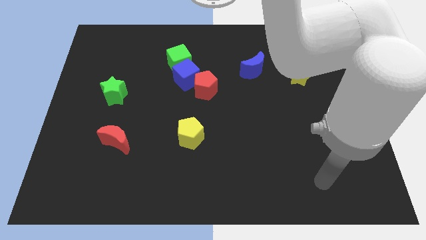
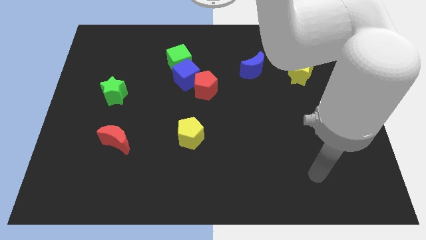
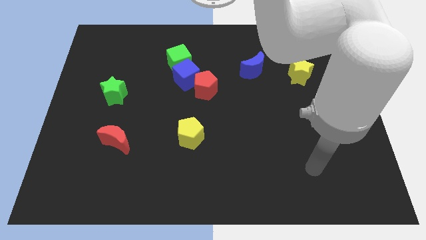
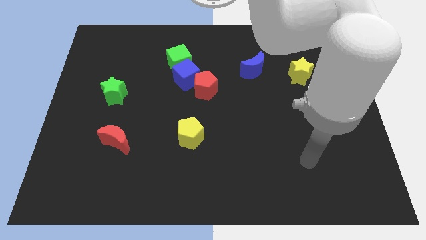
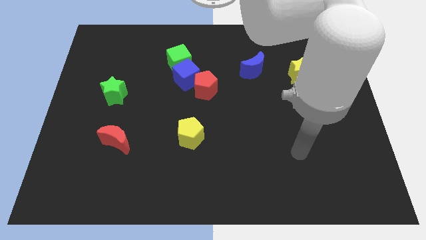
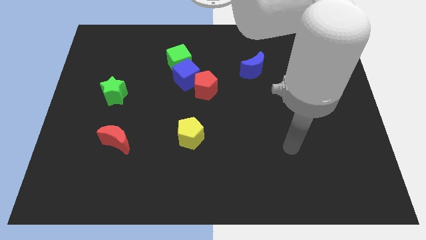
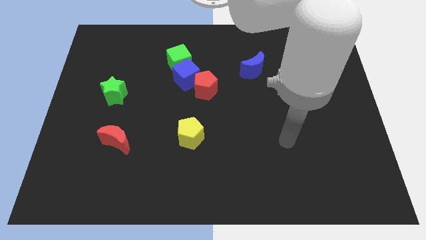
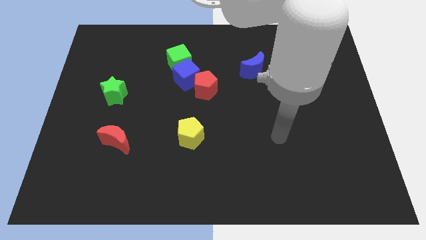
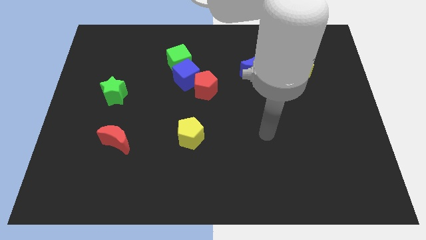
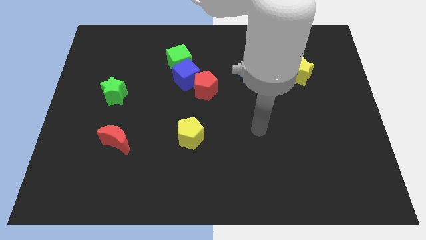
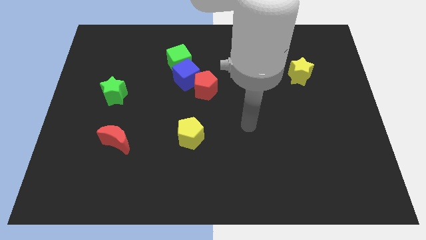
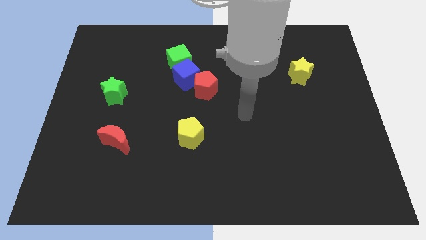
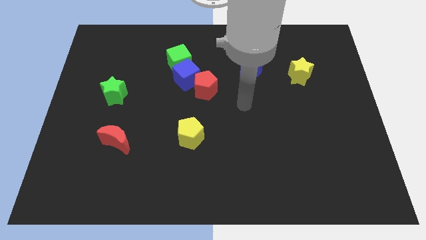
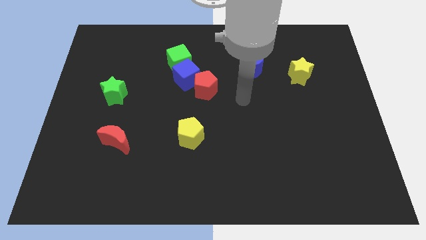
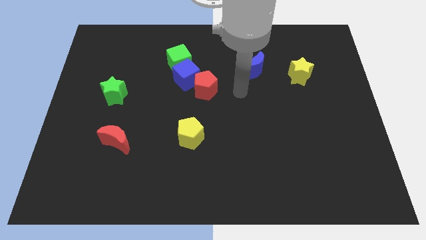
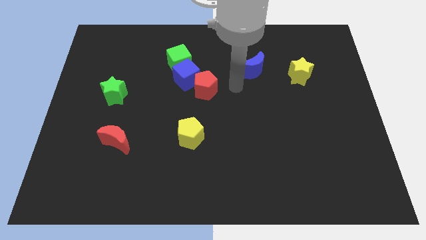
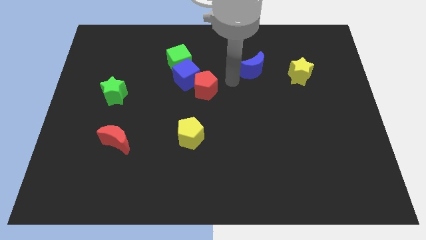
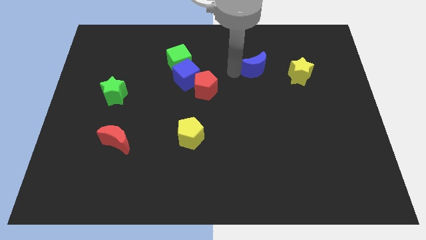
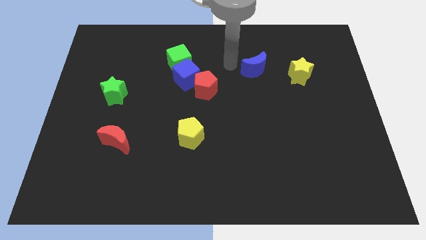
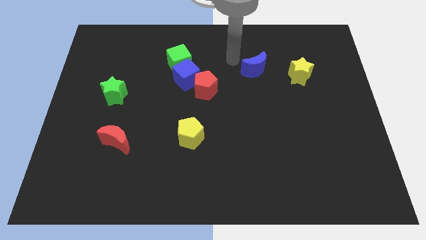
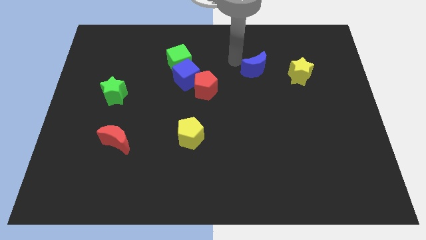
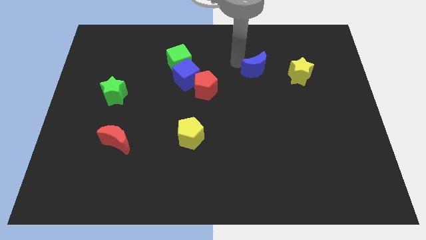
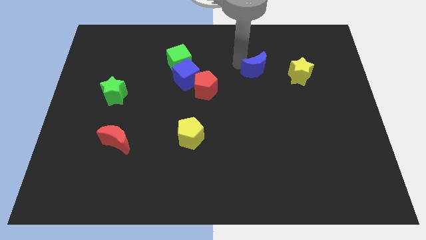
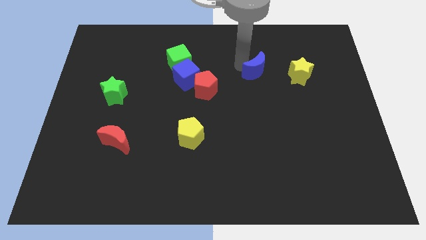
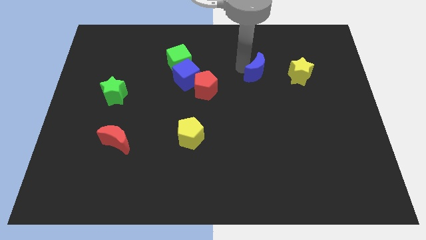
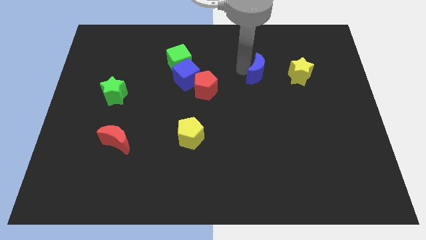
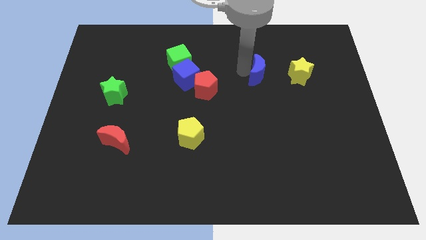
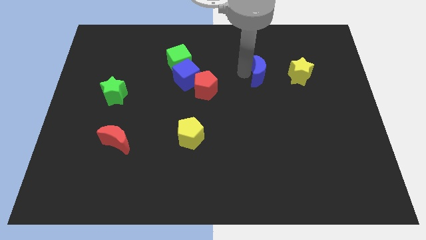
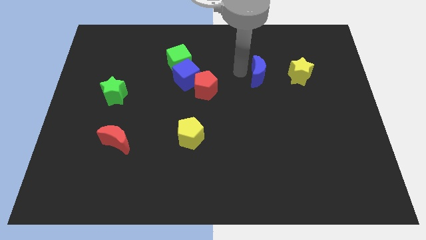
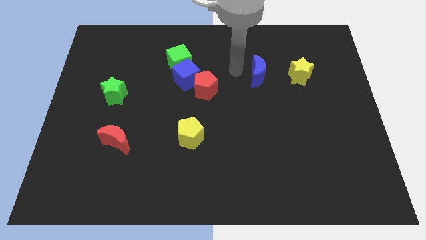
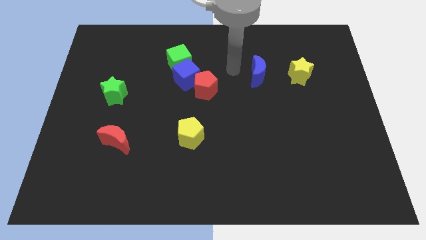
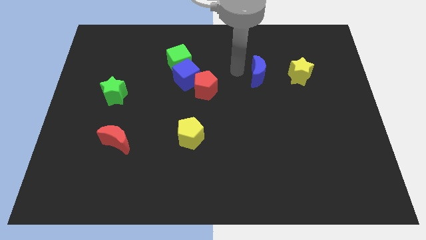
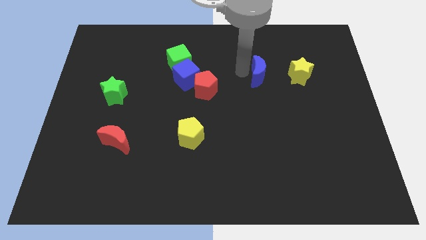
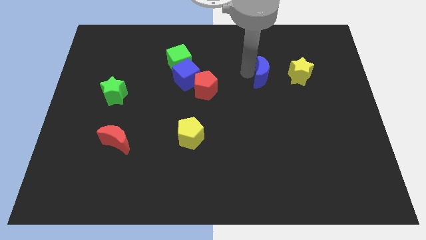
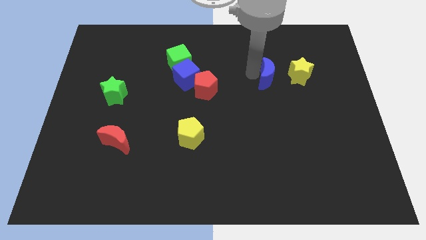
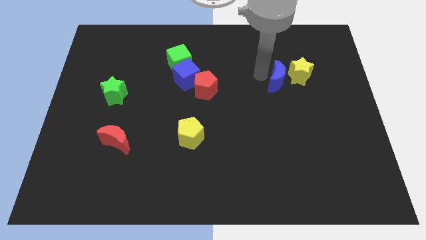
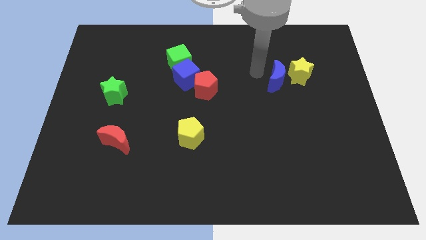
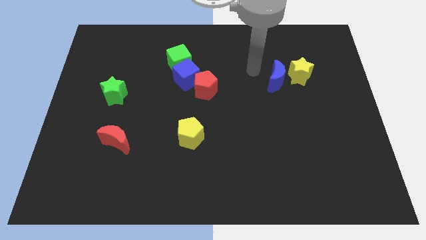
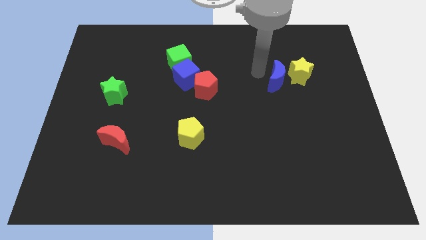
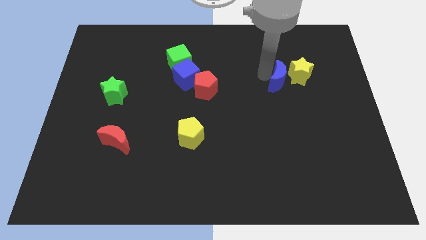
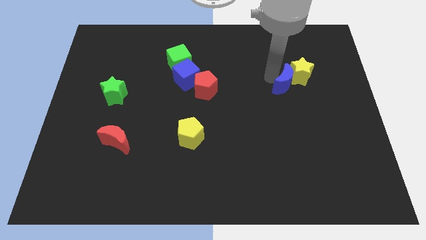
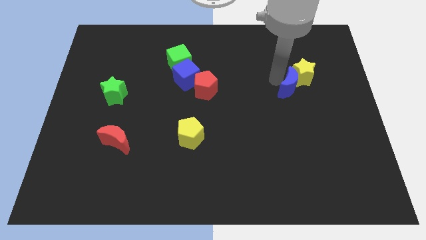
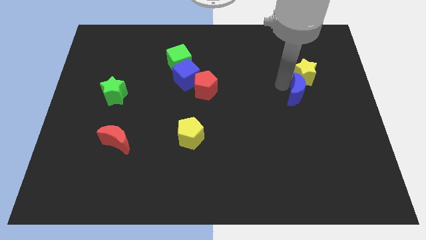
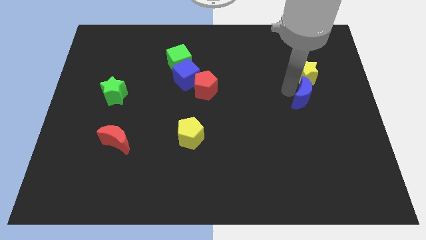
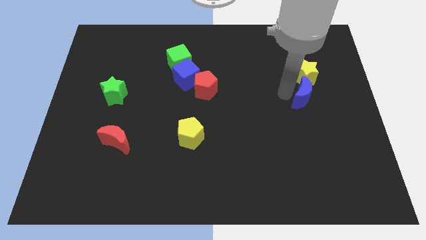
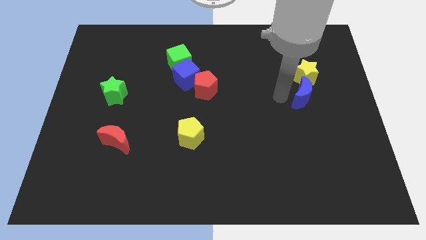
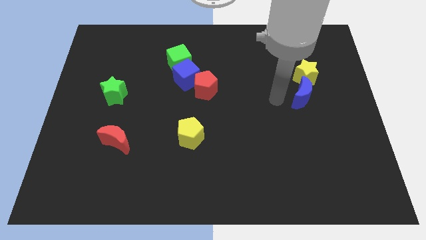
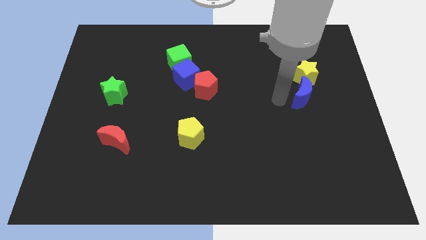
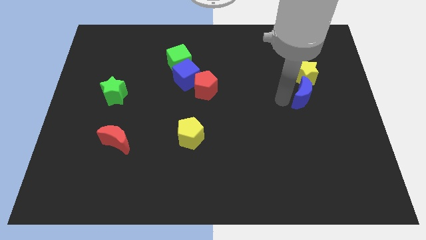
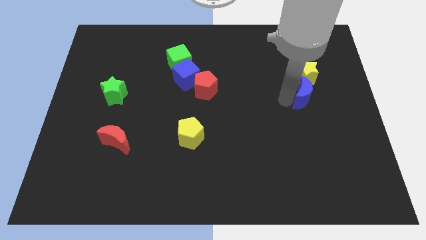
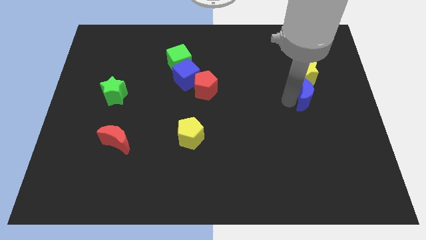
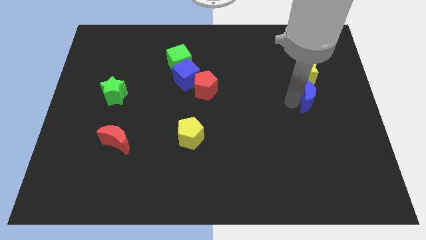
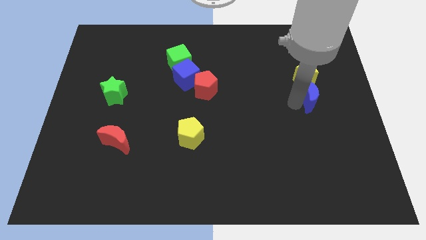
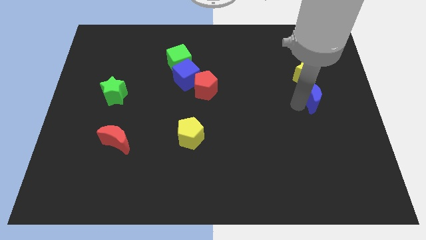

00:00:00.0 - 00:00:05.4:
push the blue moon to the bottom right side of the yellow star

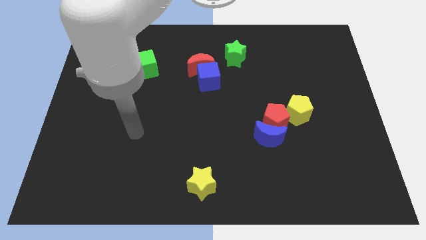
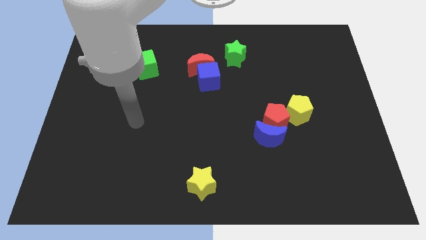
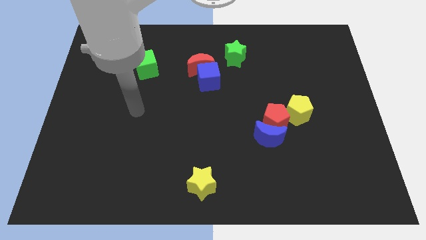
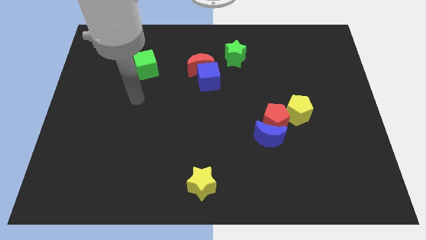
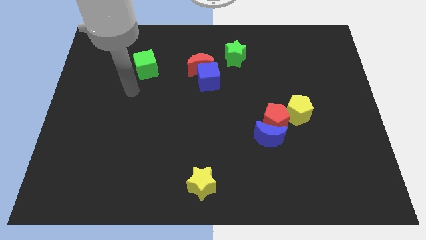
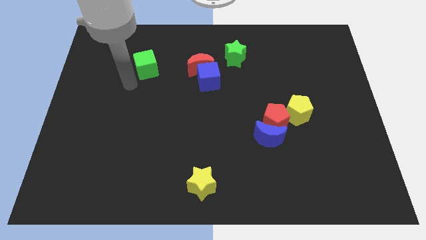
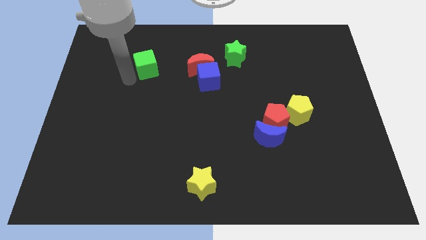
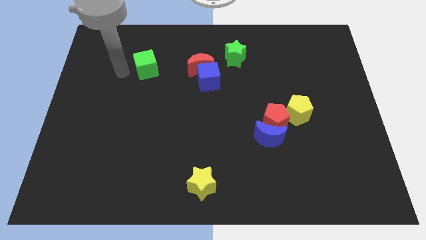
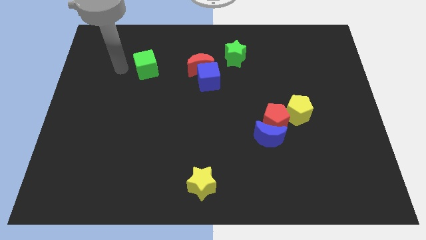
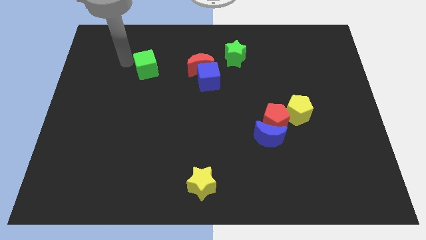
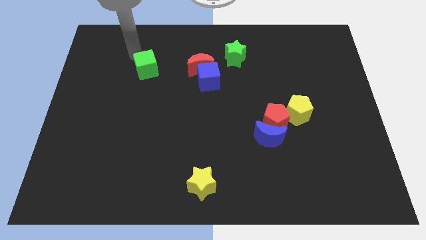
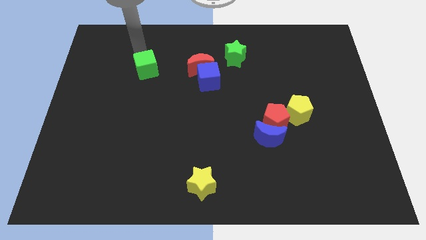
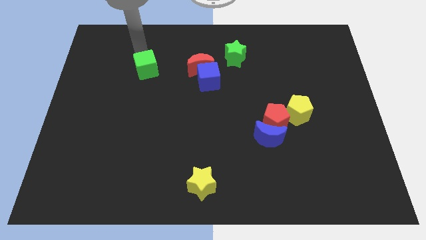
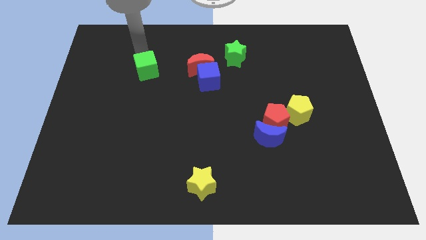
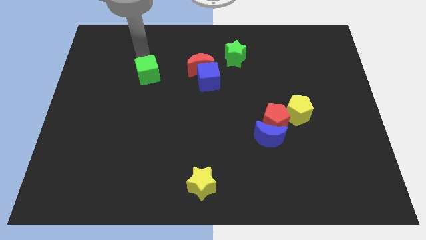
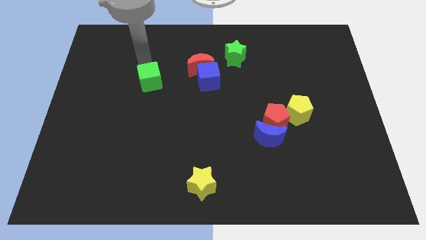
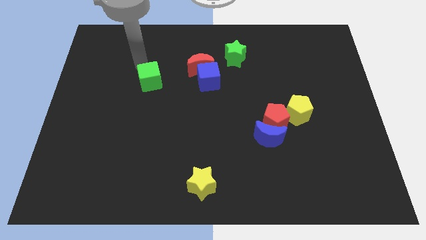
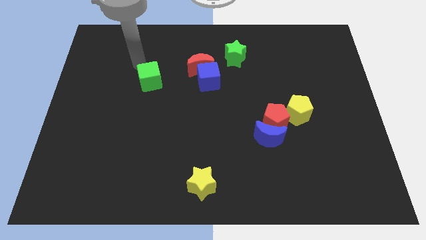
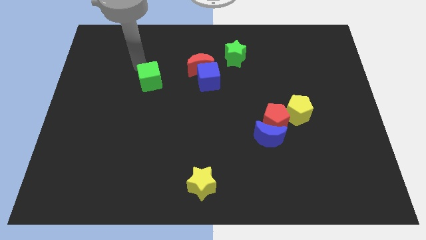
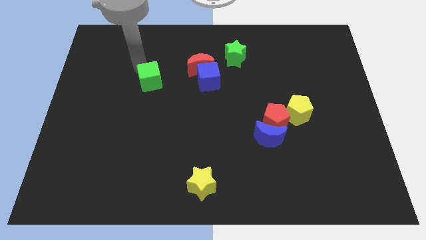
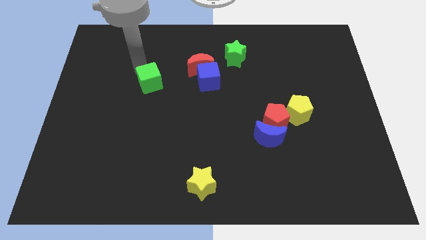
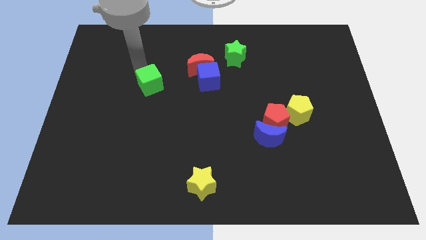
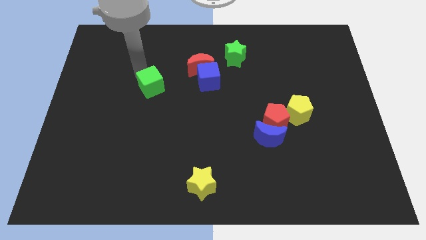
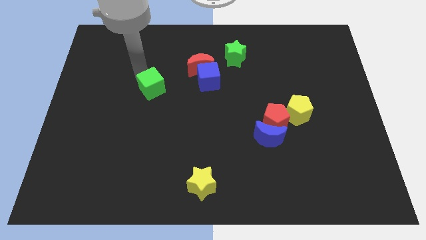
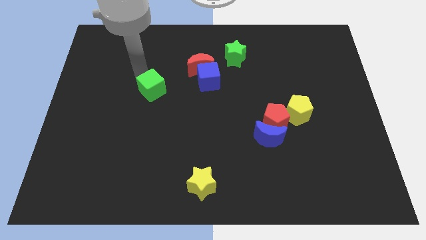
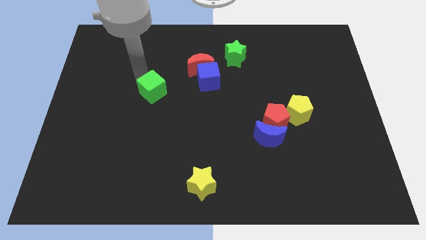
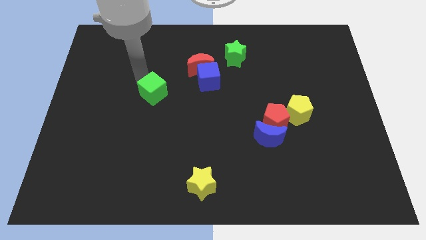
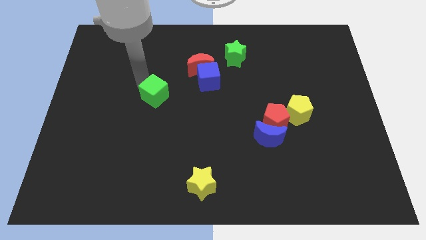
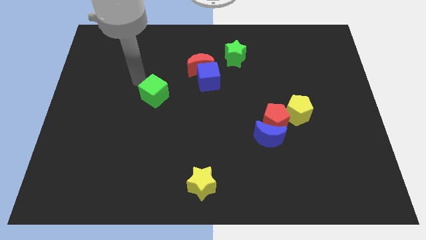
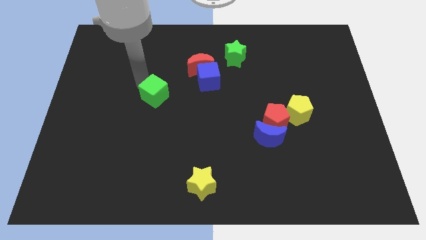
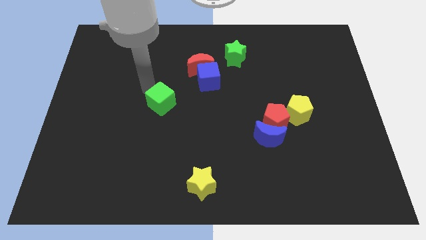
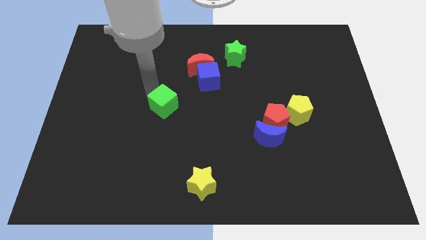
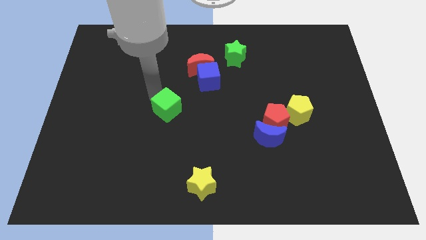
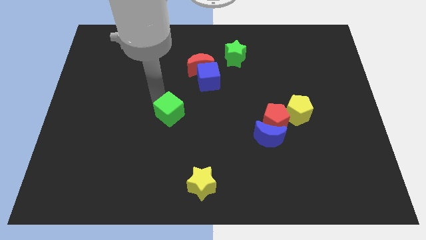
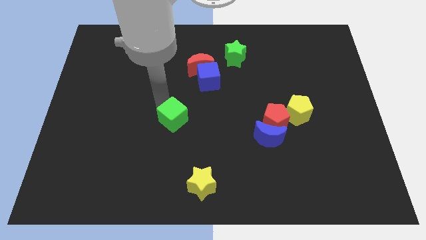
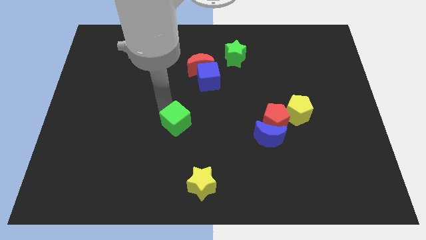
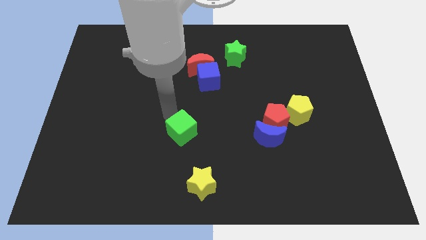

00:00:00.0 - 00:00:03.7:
put the green cube above the yellow star
